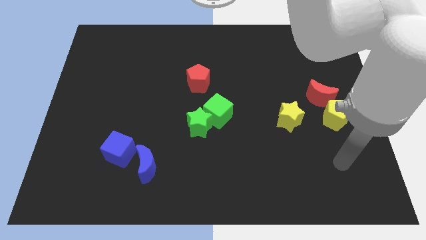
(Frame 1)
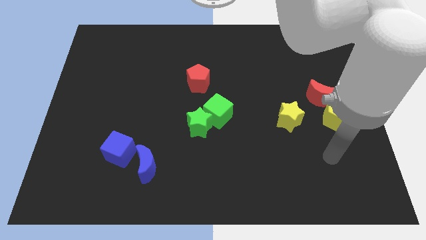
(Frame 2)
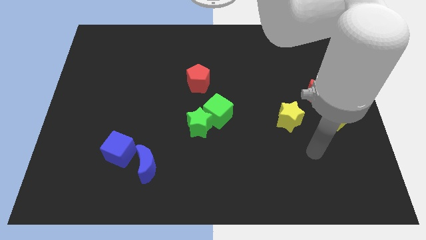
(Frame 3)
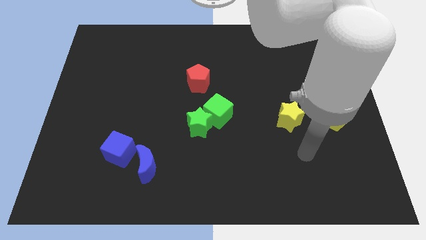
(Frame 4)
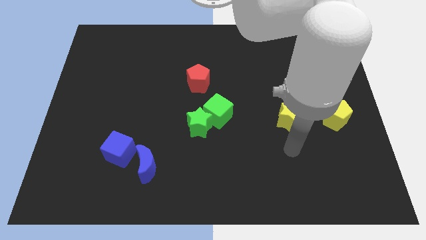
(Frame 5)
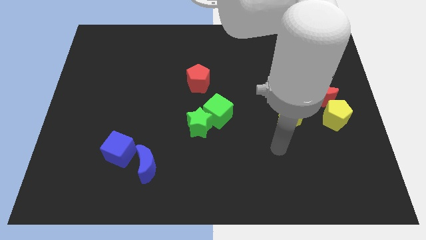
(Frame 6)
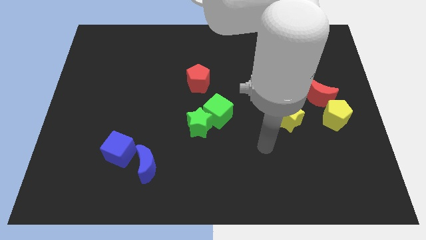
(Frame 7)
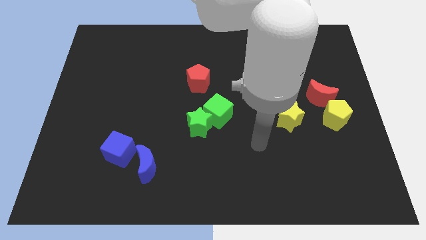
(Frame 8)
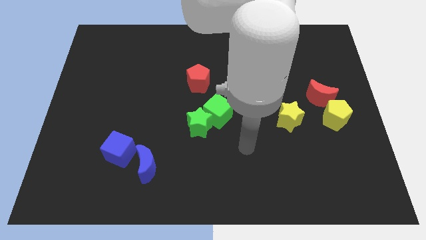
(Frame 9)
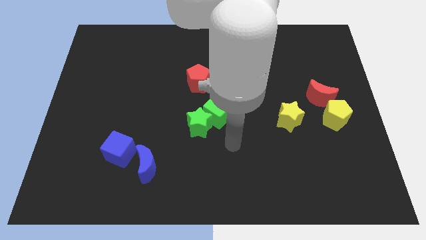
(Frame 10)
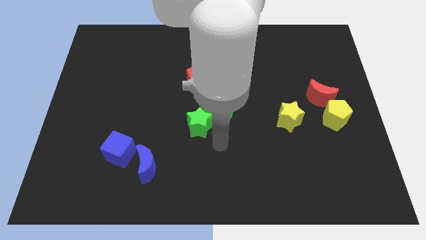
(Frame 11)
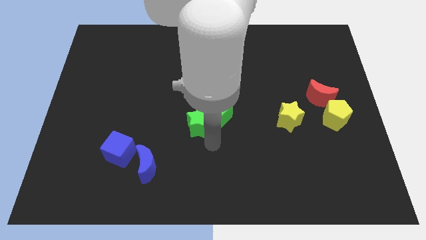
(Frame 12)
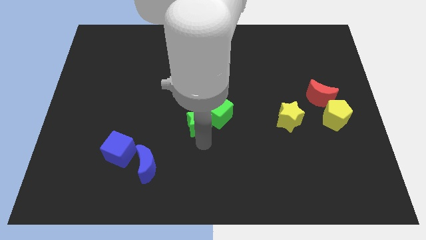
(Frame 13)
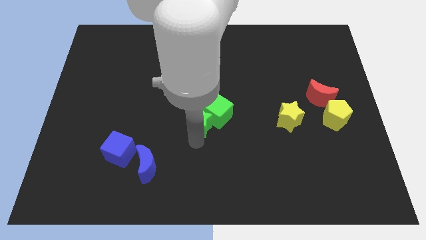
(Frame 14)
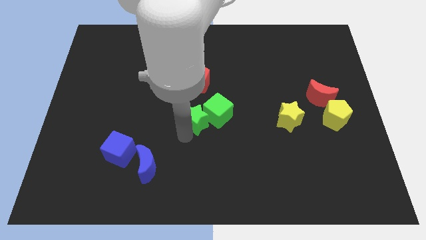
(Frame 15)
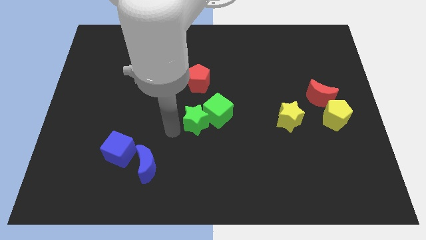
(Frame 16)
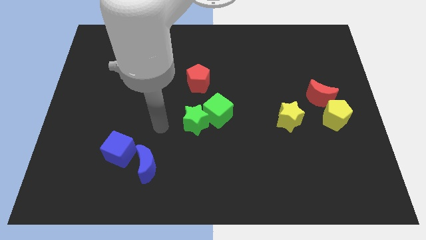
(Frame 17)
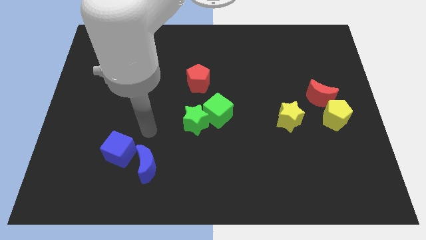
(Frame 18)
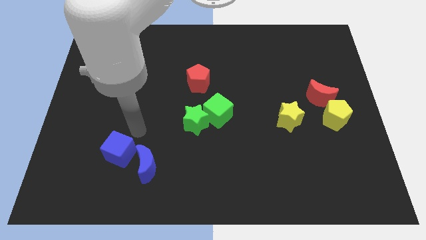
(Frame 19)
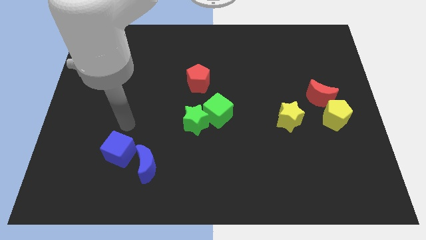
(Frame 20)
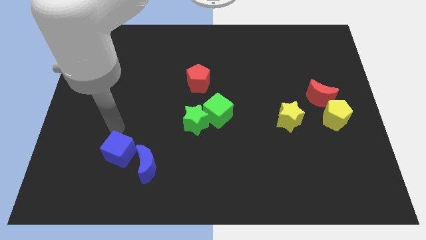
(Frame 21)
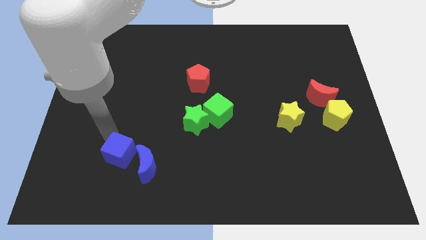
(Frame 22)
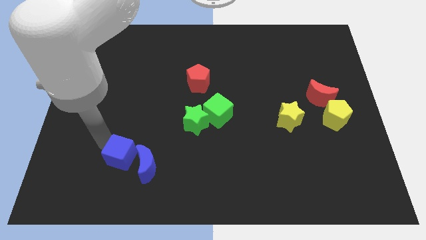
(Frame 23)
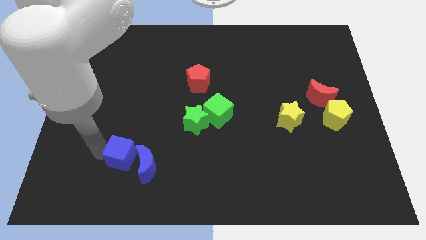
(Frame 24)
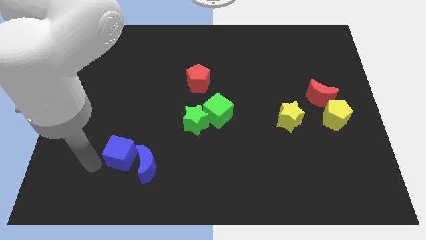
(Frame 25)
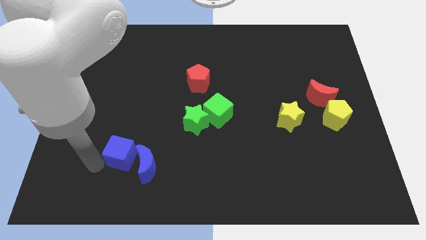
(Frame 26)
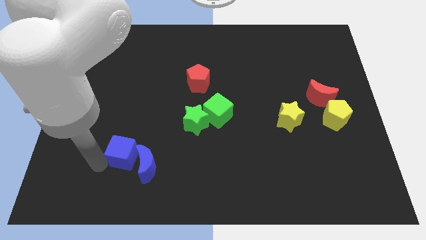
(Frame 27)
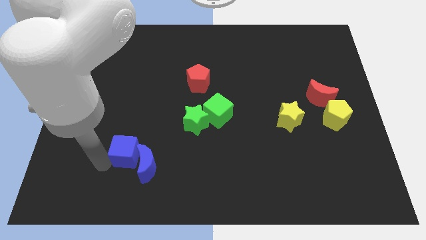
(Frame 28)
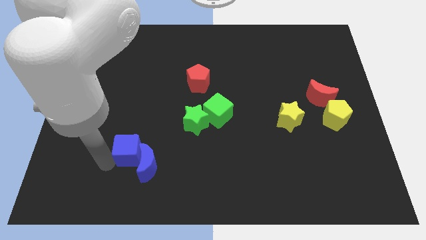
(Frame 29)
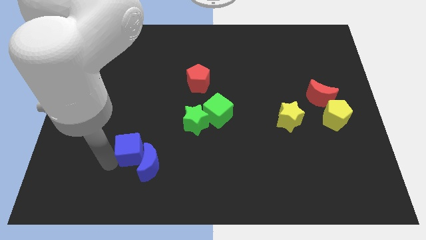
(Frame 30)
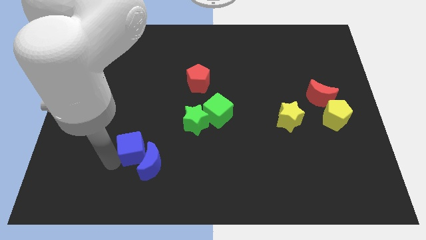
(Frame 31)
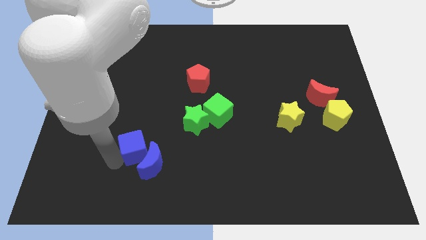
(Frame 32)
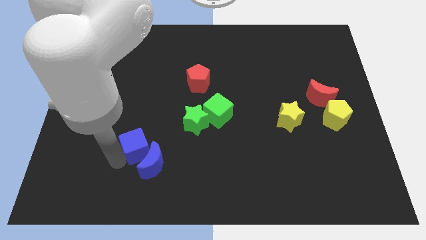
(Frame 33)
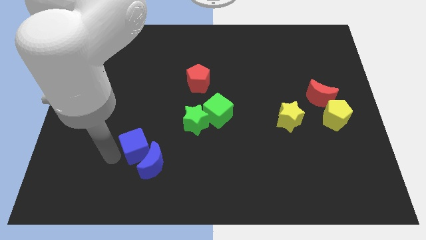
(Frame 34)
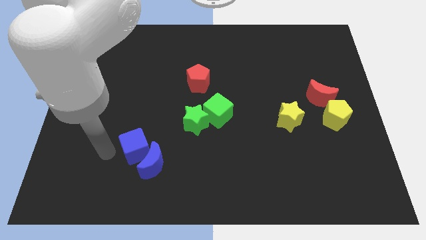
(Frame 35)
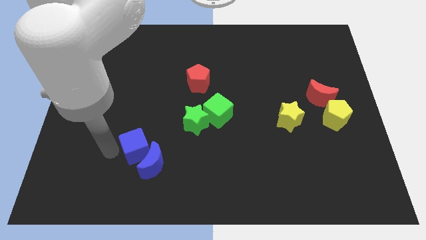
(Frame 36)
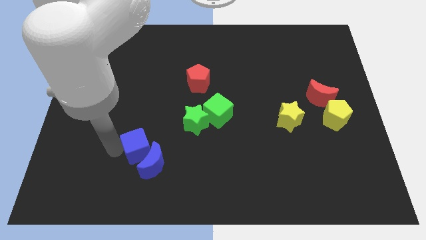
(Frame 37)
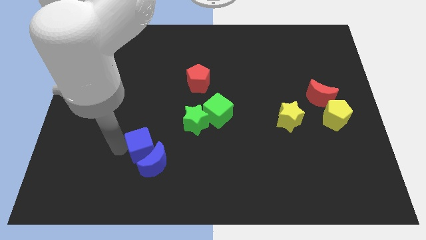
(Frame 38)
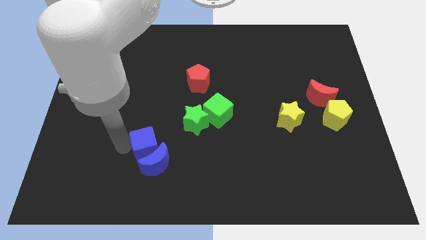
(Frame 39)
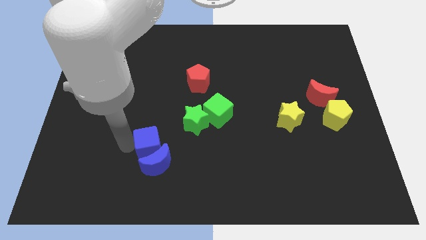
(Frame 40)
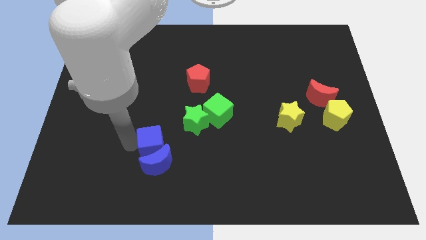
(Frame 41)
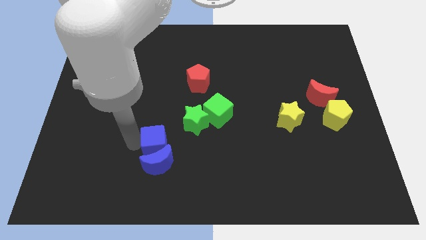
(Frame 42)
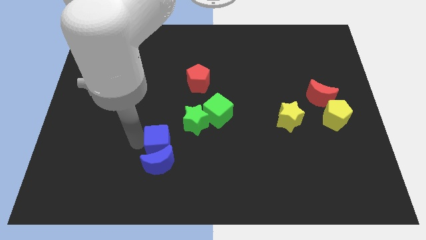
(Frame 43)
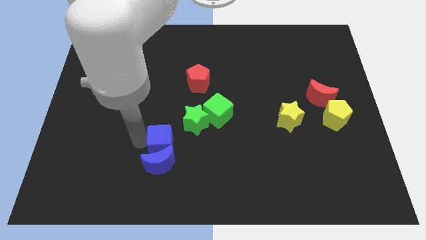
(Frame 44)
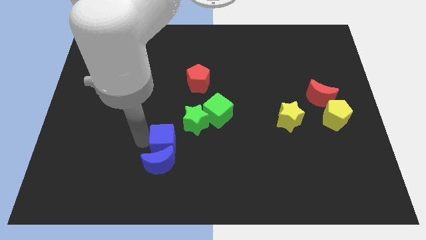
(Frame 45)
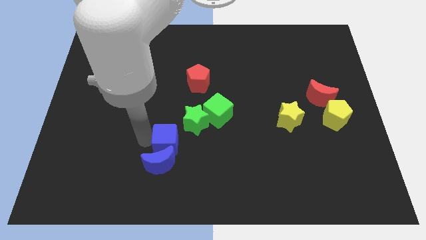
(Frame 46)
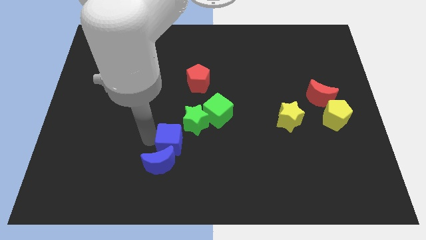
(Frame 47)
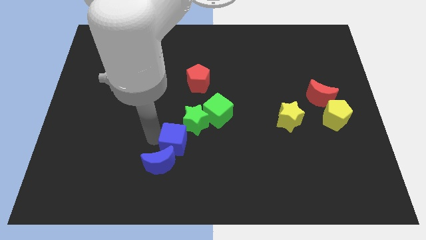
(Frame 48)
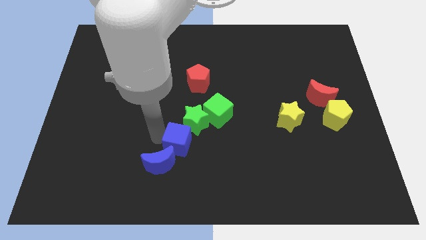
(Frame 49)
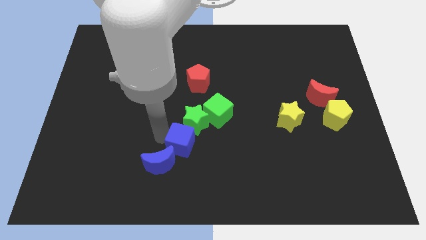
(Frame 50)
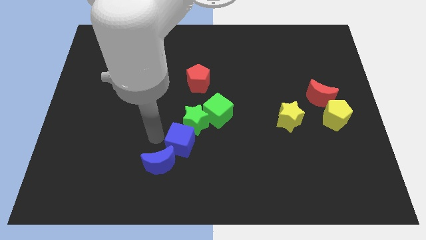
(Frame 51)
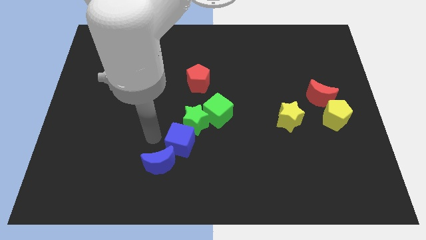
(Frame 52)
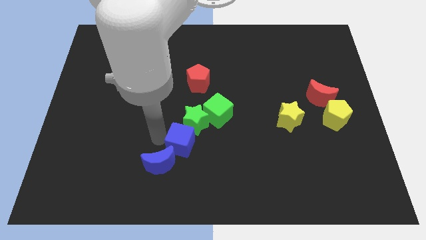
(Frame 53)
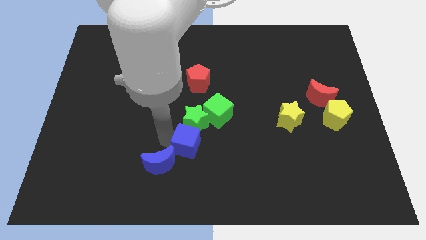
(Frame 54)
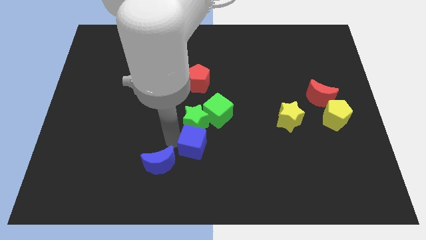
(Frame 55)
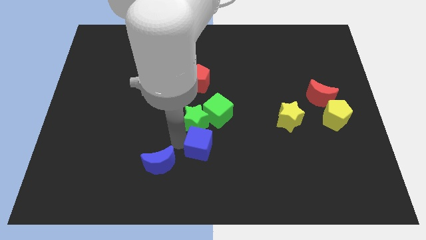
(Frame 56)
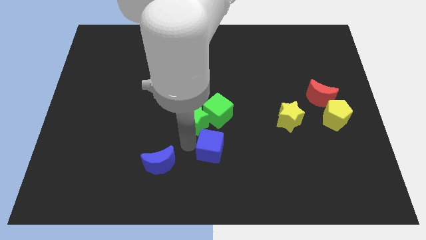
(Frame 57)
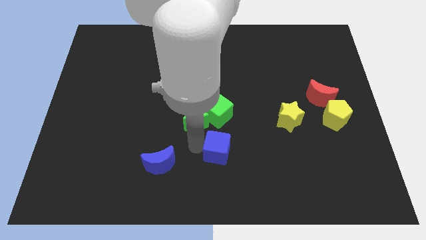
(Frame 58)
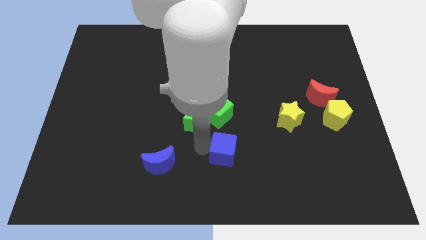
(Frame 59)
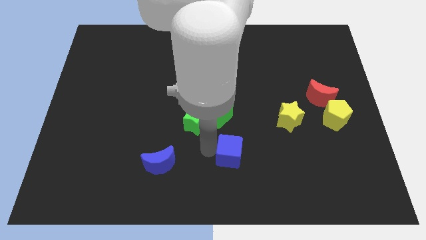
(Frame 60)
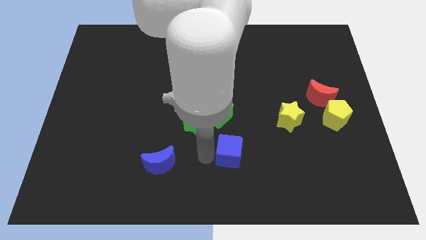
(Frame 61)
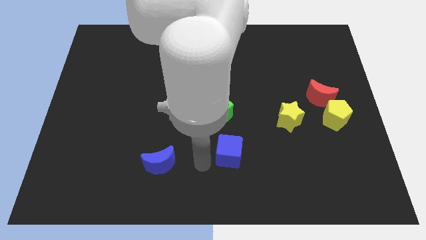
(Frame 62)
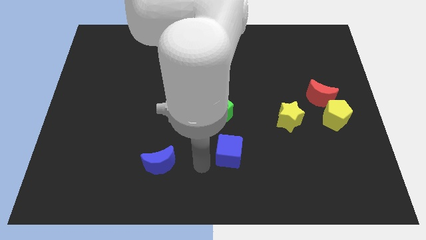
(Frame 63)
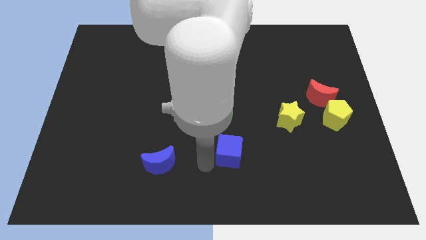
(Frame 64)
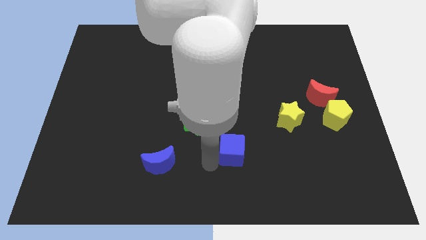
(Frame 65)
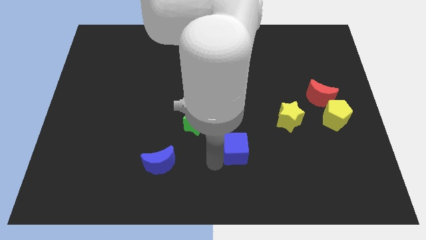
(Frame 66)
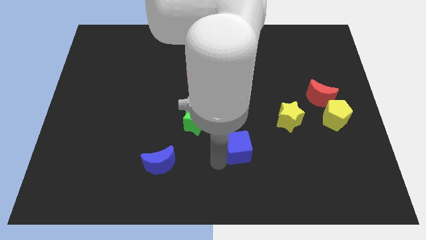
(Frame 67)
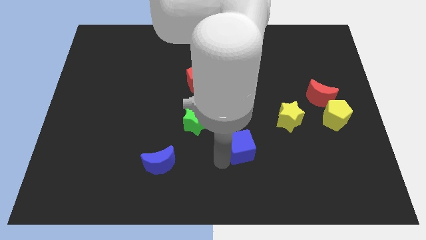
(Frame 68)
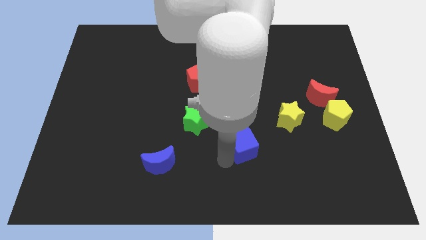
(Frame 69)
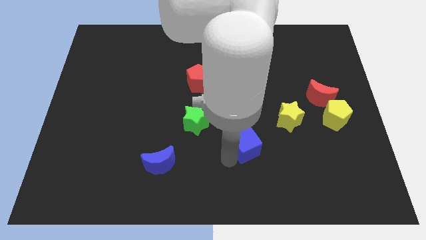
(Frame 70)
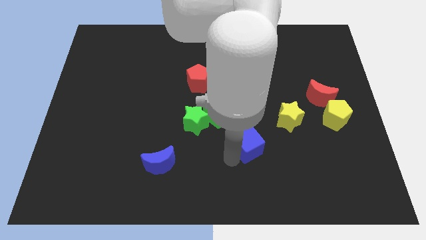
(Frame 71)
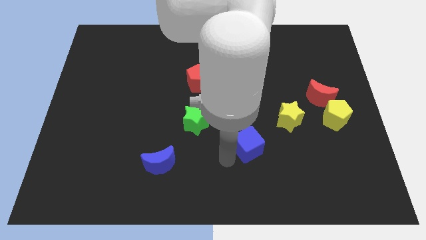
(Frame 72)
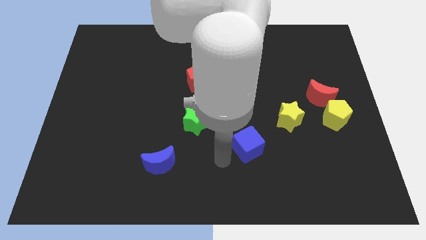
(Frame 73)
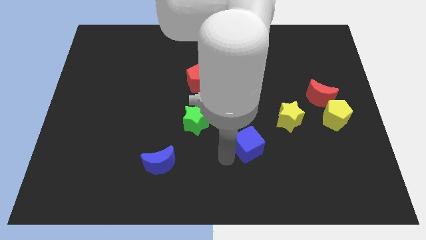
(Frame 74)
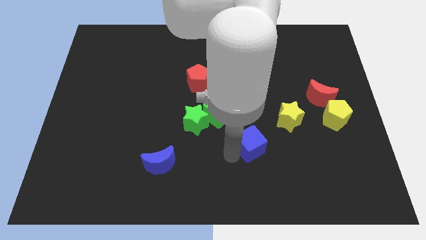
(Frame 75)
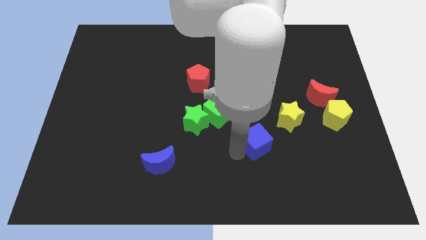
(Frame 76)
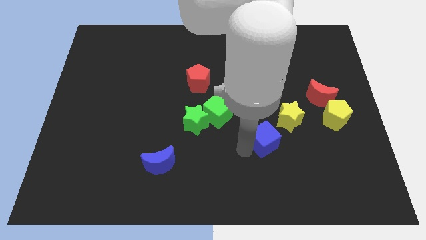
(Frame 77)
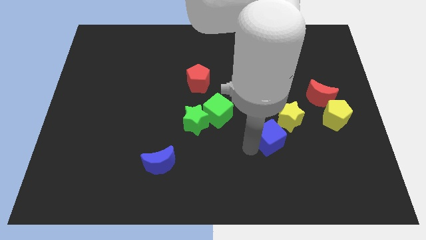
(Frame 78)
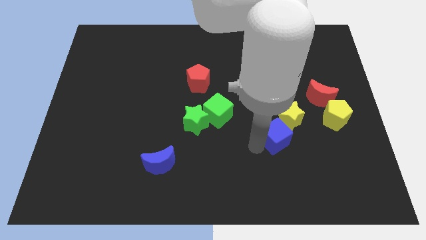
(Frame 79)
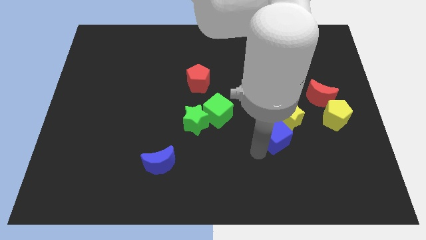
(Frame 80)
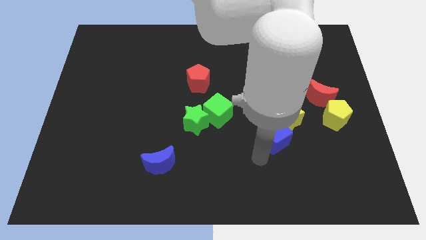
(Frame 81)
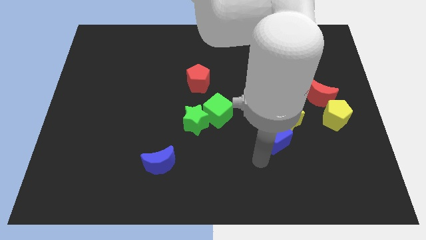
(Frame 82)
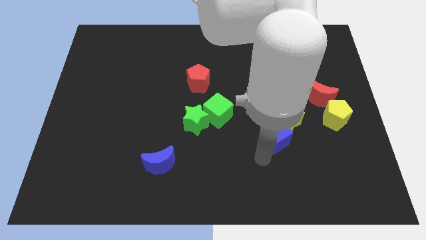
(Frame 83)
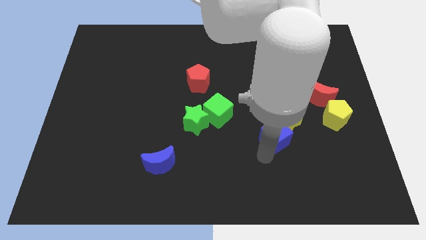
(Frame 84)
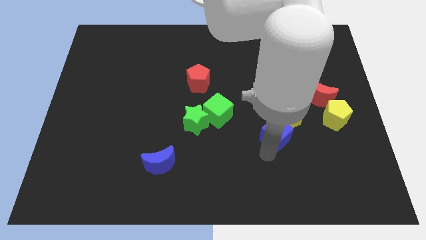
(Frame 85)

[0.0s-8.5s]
slide the blue cube towards the yellow star
